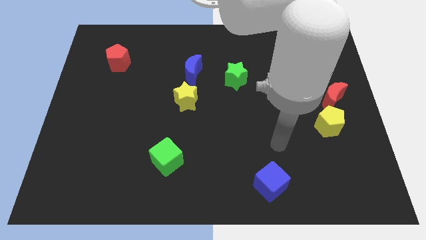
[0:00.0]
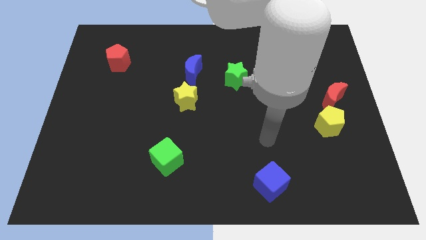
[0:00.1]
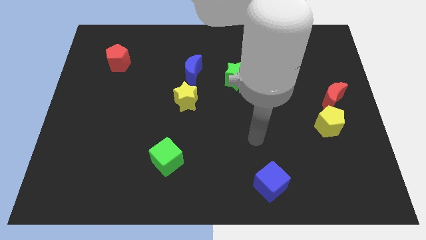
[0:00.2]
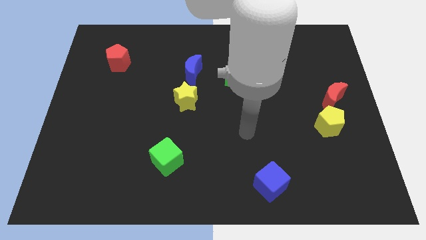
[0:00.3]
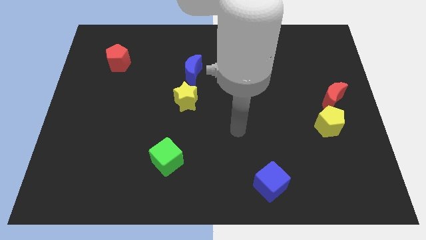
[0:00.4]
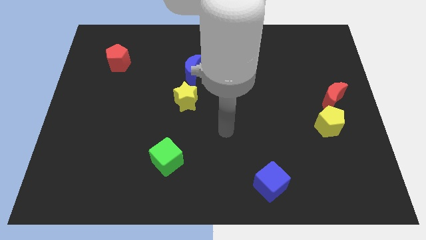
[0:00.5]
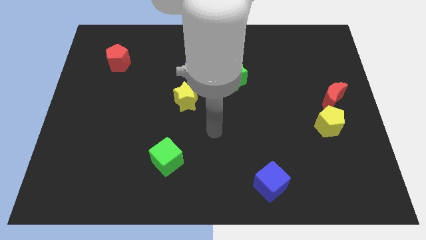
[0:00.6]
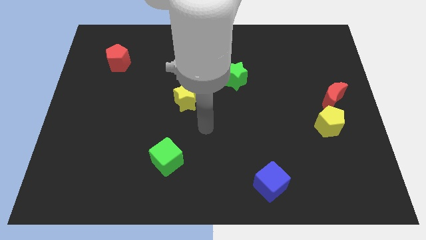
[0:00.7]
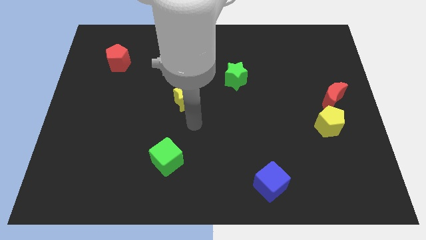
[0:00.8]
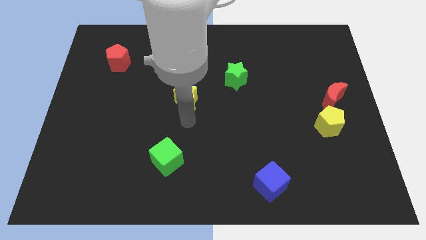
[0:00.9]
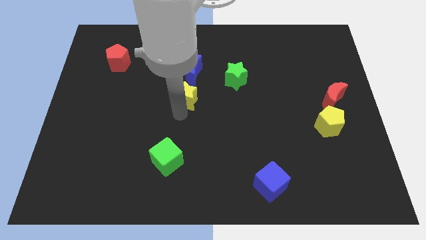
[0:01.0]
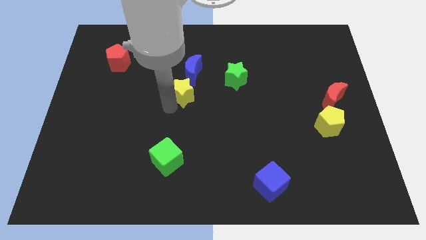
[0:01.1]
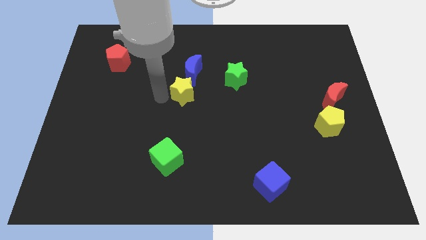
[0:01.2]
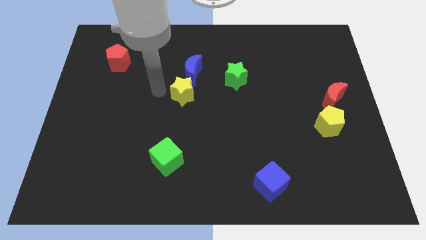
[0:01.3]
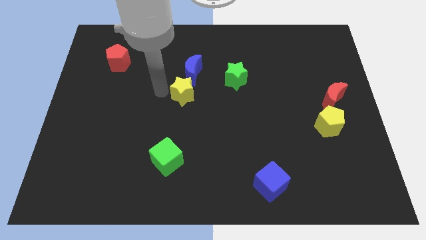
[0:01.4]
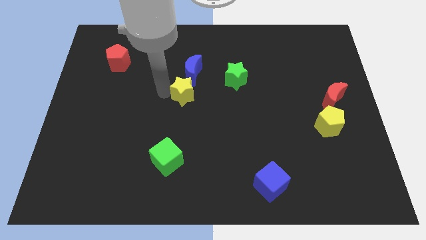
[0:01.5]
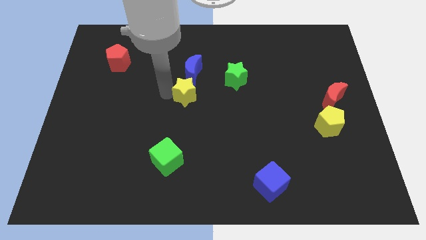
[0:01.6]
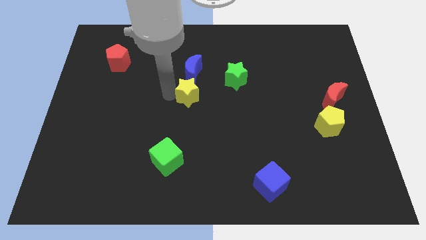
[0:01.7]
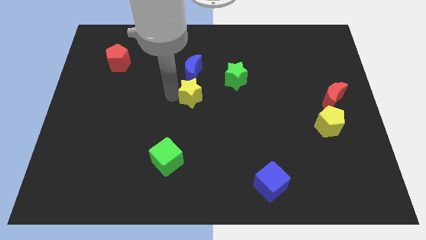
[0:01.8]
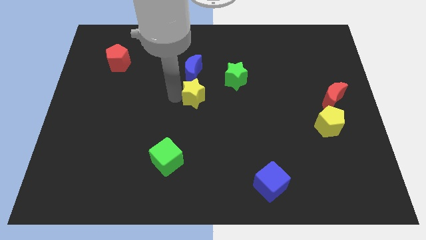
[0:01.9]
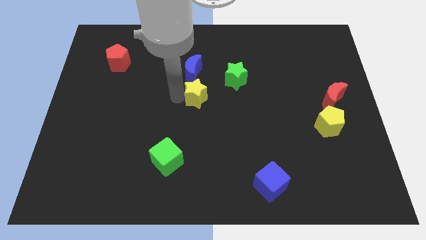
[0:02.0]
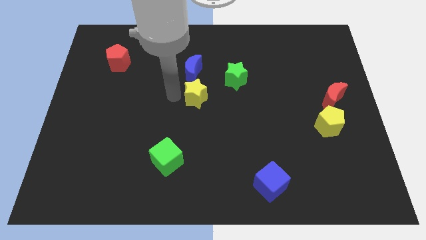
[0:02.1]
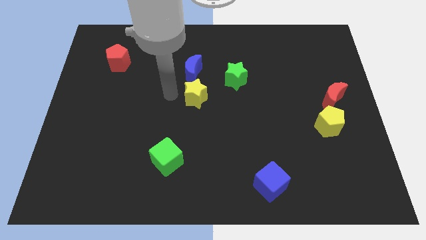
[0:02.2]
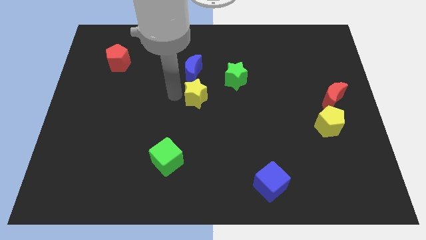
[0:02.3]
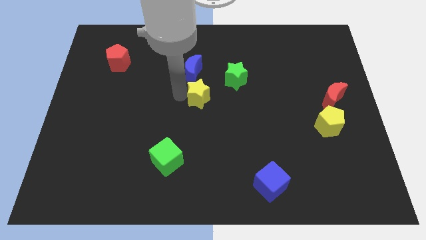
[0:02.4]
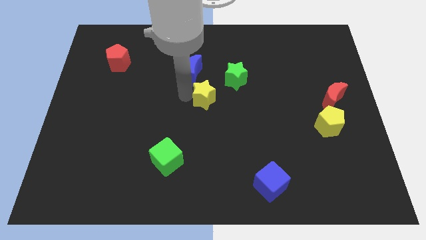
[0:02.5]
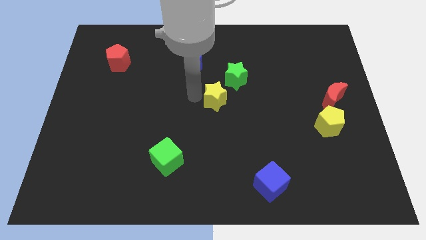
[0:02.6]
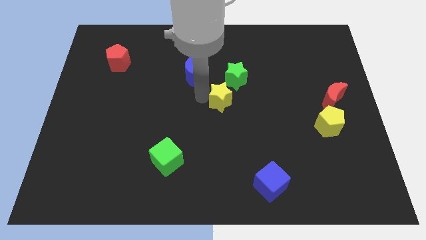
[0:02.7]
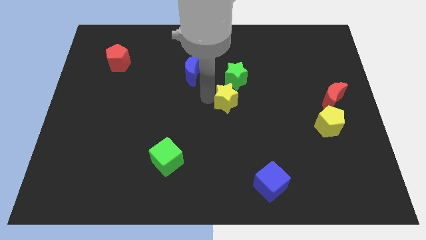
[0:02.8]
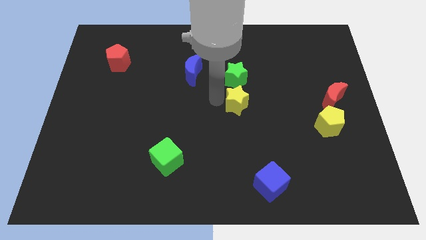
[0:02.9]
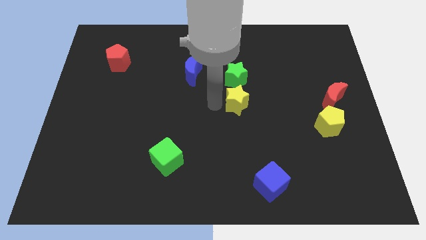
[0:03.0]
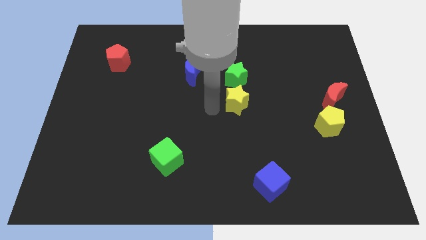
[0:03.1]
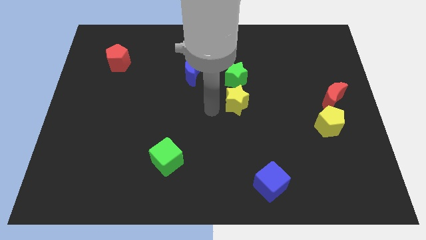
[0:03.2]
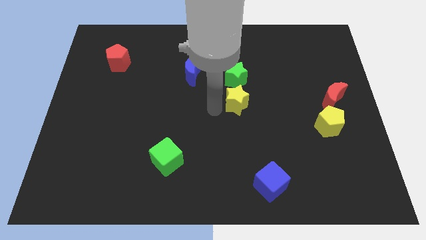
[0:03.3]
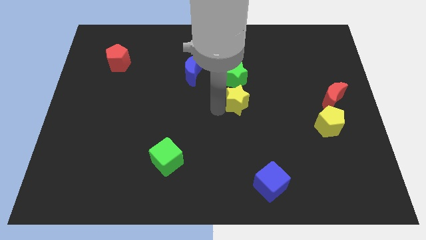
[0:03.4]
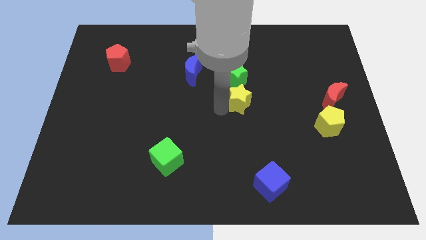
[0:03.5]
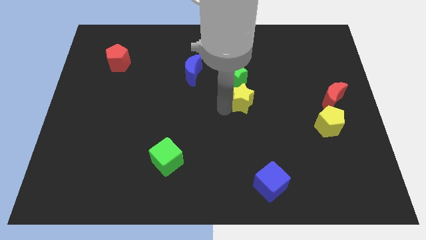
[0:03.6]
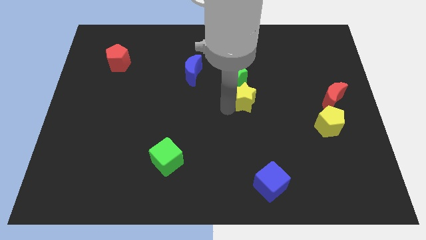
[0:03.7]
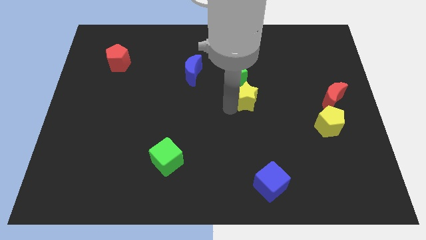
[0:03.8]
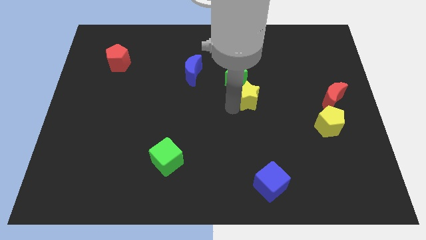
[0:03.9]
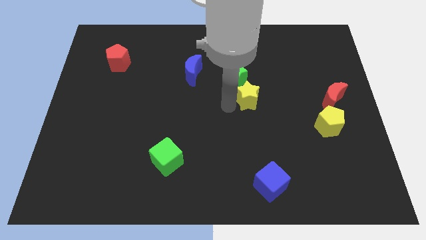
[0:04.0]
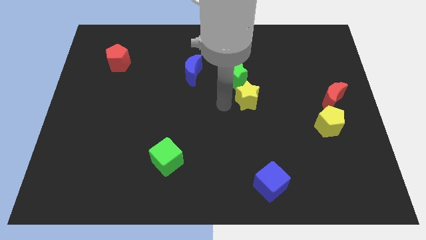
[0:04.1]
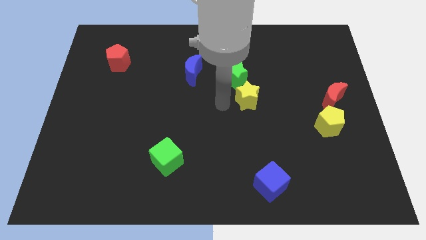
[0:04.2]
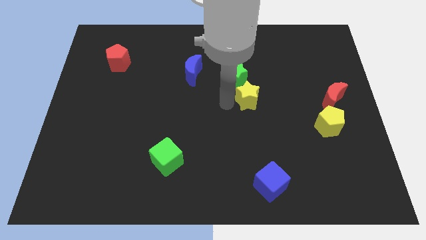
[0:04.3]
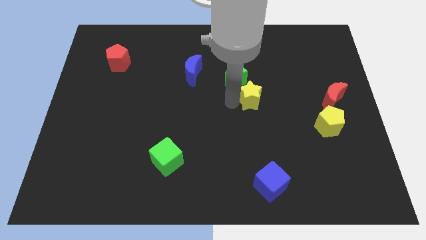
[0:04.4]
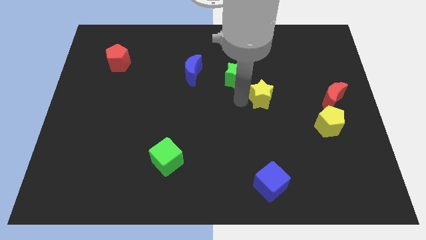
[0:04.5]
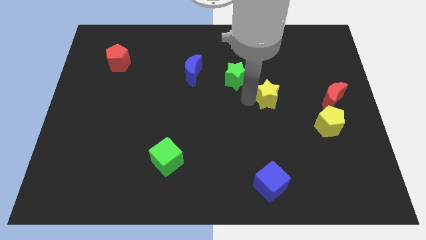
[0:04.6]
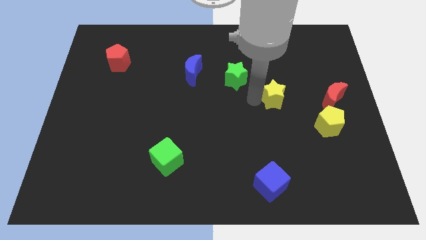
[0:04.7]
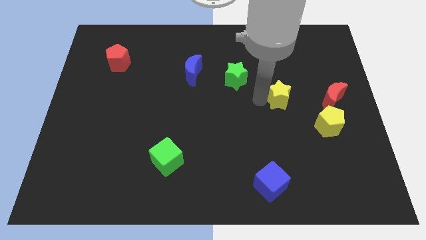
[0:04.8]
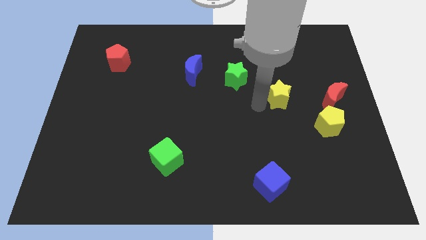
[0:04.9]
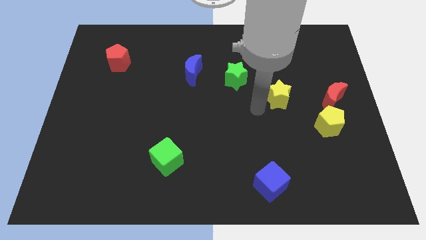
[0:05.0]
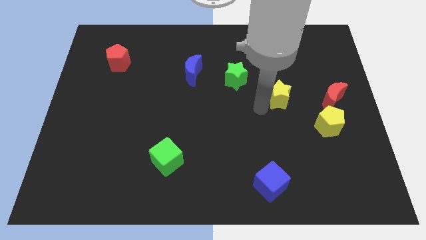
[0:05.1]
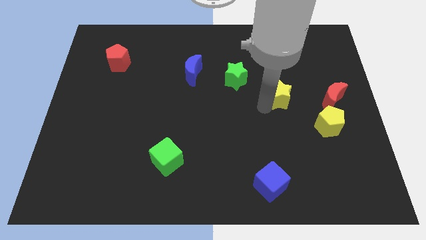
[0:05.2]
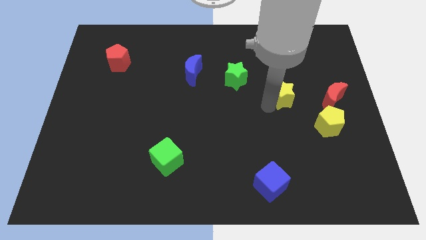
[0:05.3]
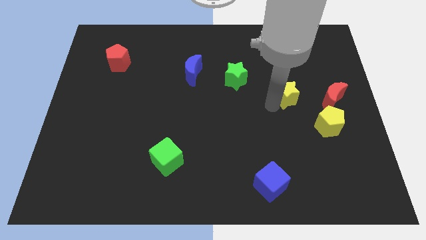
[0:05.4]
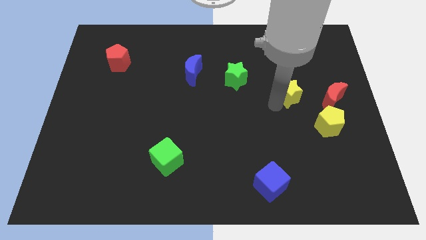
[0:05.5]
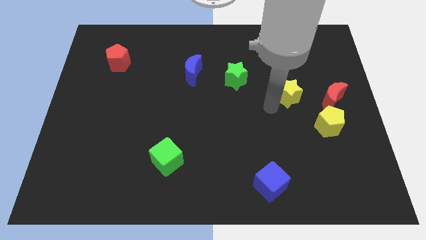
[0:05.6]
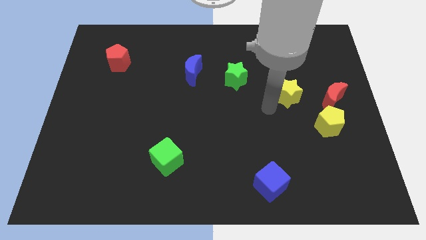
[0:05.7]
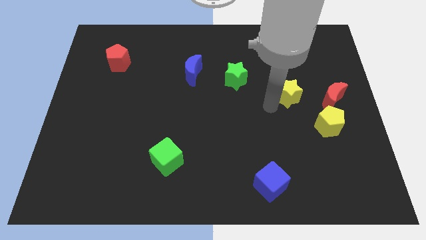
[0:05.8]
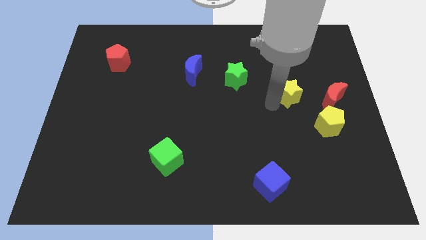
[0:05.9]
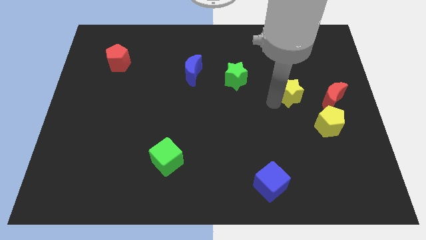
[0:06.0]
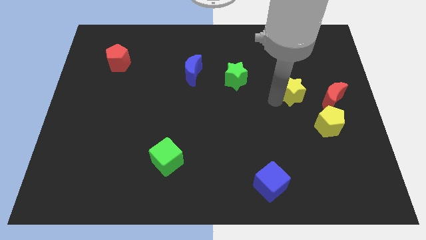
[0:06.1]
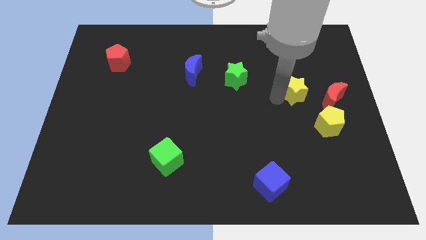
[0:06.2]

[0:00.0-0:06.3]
put the yellow star diagonally up and to the left of the red moon
